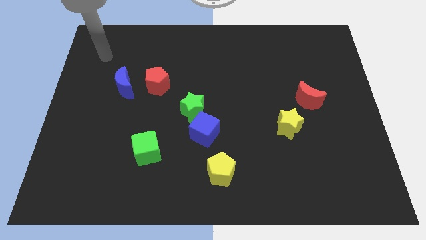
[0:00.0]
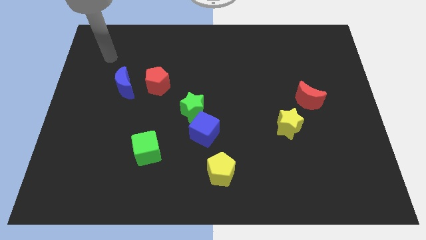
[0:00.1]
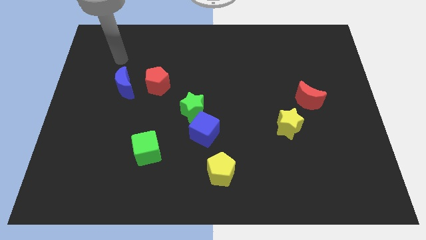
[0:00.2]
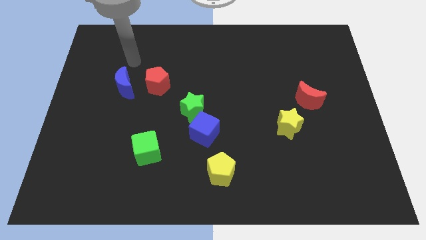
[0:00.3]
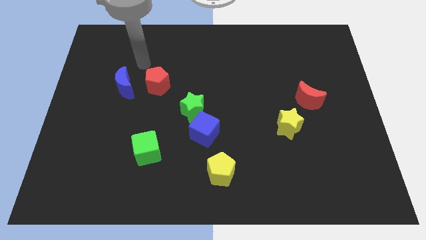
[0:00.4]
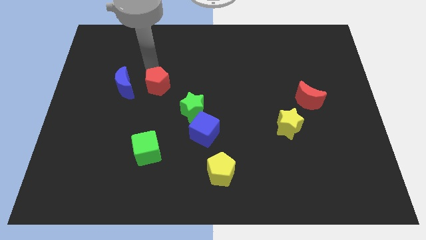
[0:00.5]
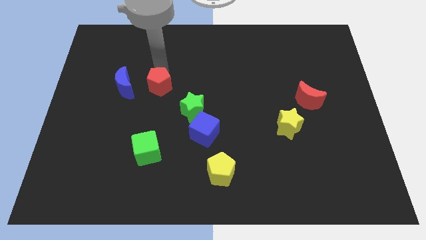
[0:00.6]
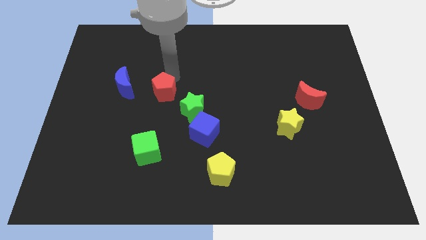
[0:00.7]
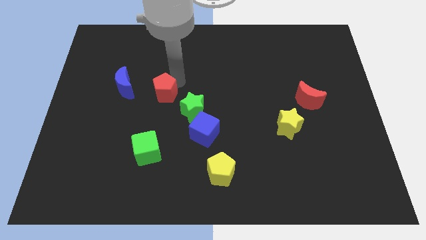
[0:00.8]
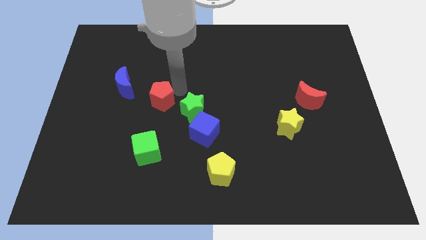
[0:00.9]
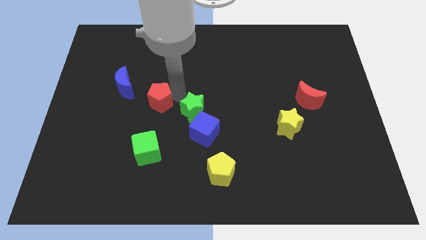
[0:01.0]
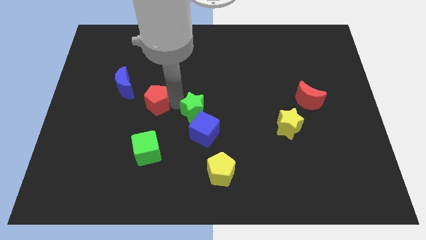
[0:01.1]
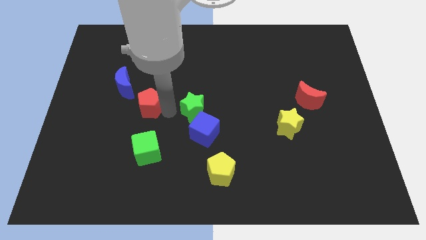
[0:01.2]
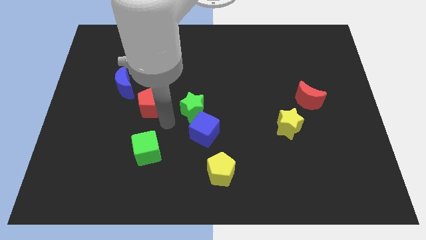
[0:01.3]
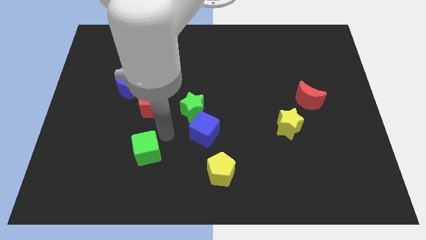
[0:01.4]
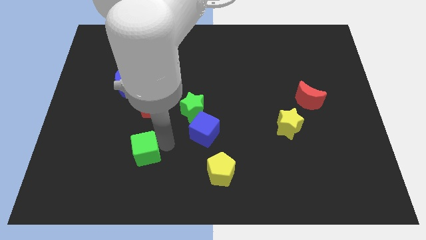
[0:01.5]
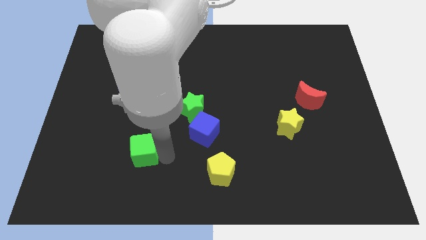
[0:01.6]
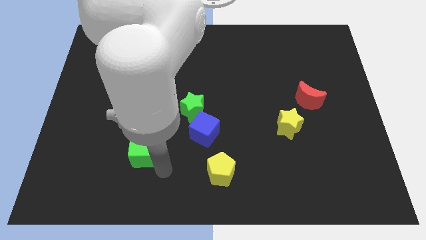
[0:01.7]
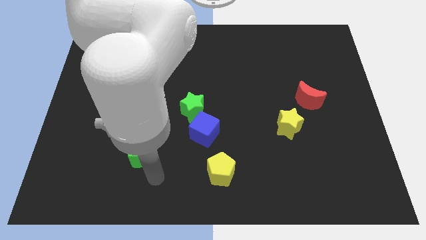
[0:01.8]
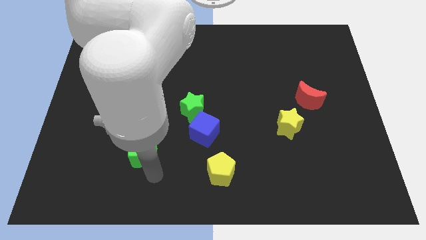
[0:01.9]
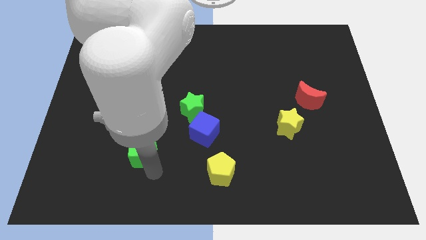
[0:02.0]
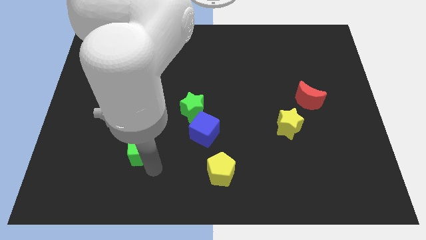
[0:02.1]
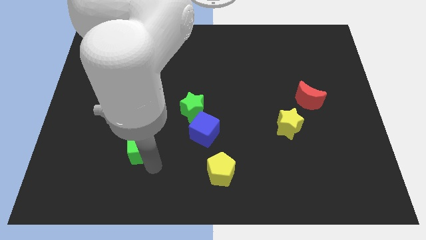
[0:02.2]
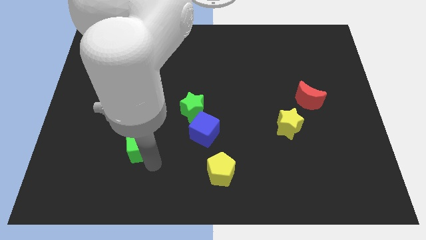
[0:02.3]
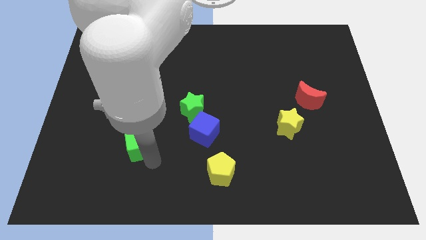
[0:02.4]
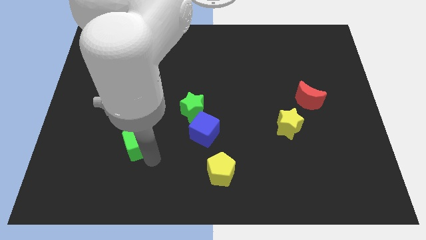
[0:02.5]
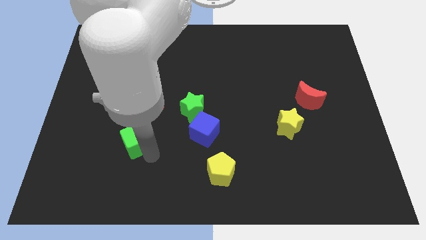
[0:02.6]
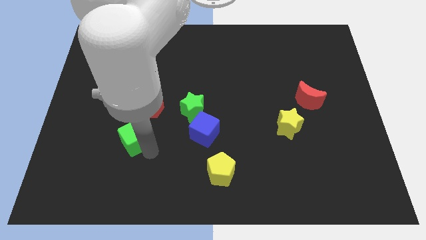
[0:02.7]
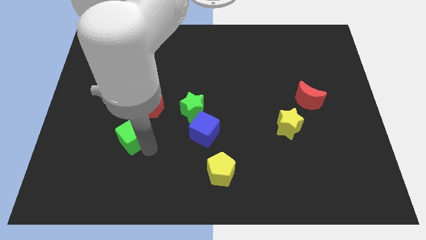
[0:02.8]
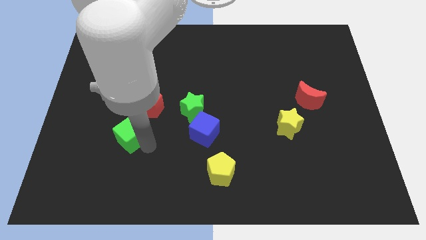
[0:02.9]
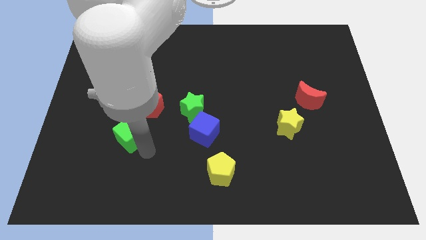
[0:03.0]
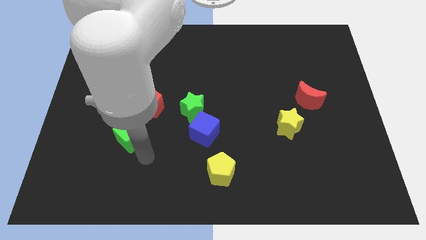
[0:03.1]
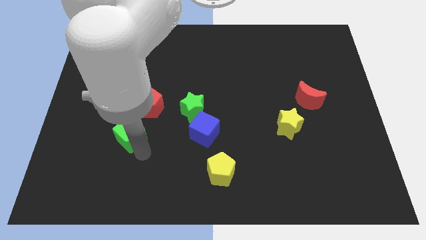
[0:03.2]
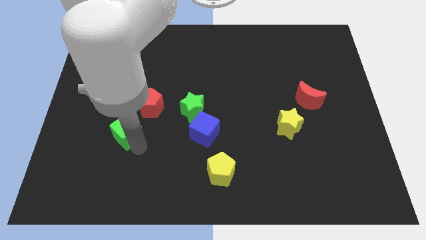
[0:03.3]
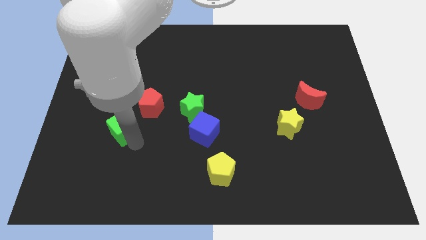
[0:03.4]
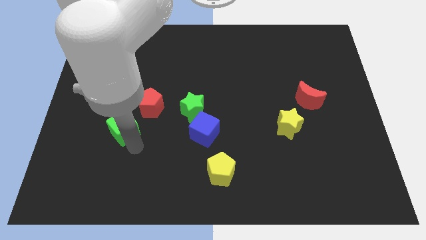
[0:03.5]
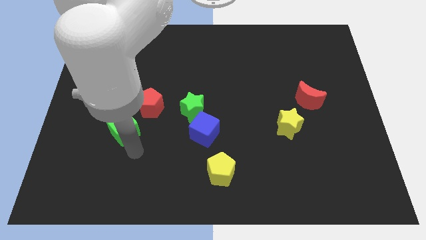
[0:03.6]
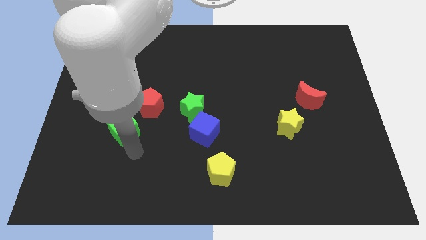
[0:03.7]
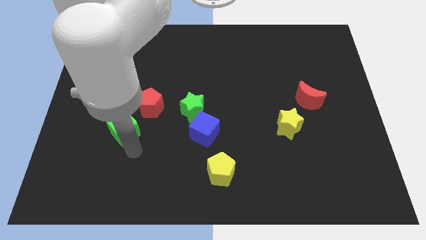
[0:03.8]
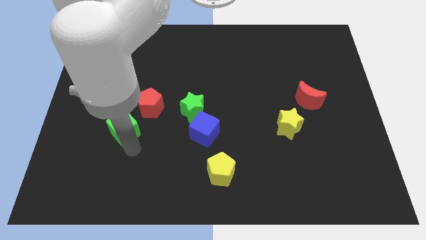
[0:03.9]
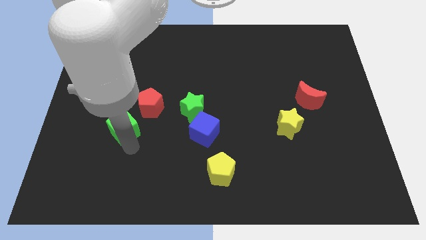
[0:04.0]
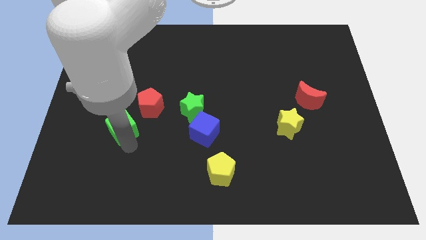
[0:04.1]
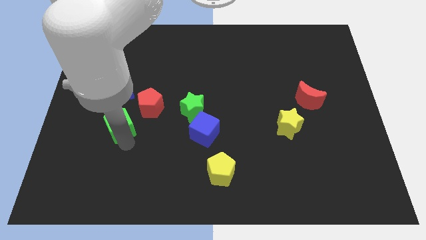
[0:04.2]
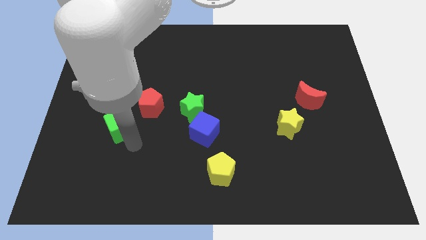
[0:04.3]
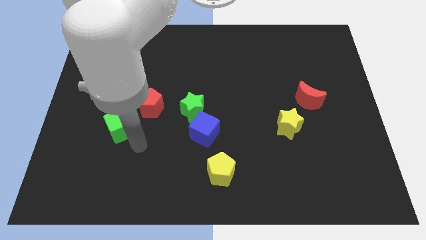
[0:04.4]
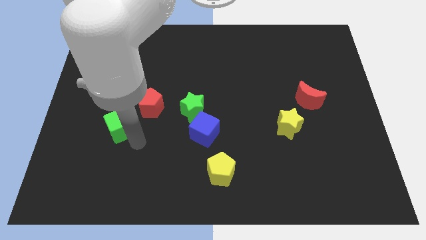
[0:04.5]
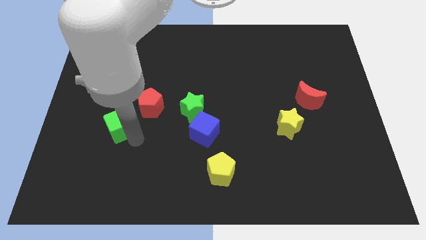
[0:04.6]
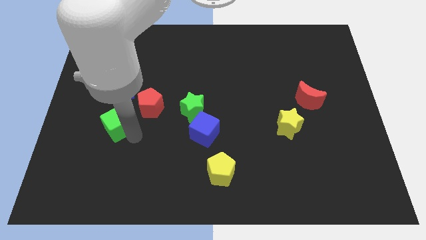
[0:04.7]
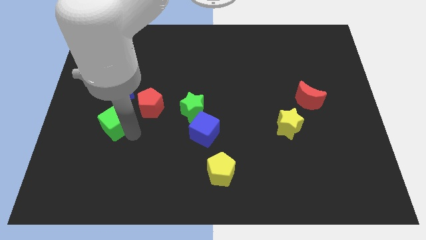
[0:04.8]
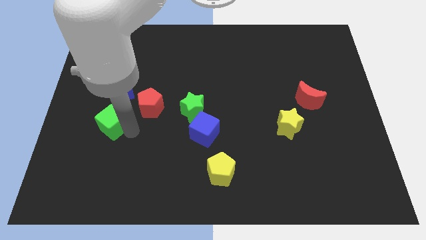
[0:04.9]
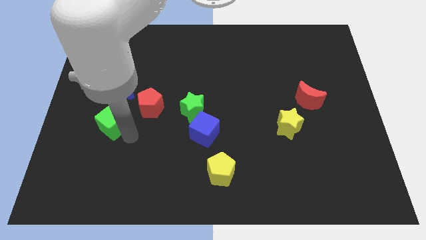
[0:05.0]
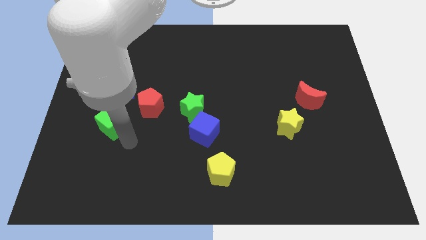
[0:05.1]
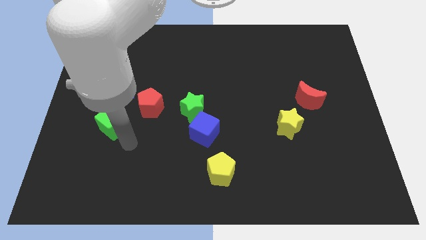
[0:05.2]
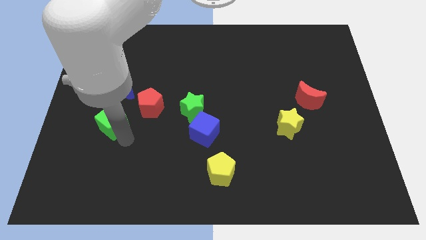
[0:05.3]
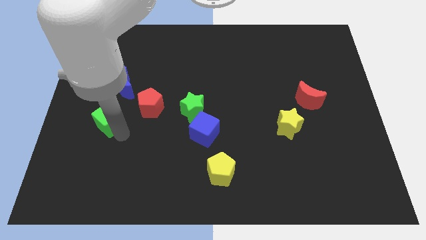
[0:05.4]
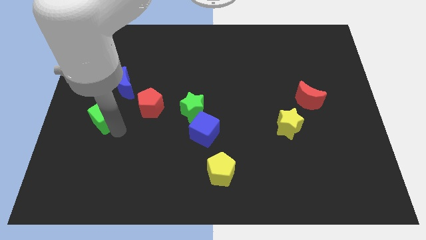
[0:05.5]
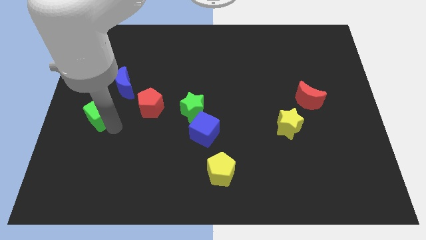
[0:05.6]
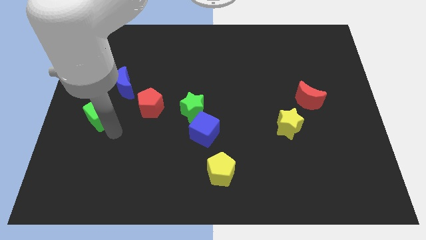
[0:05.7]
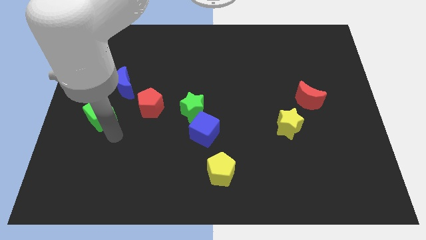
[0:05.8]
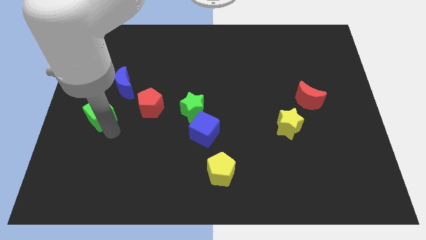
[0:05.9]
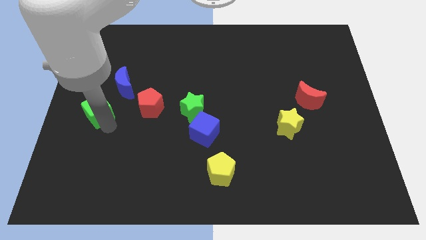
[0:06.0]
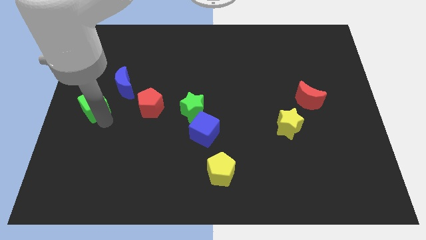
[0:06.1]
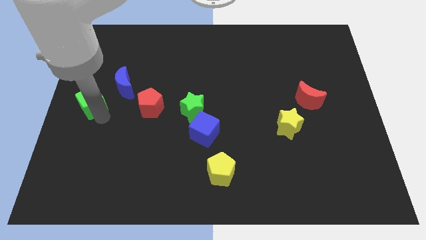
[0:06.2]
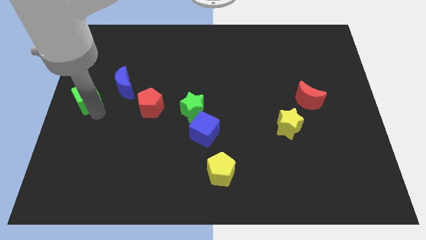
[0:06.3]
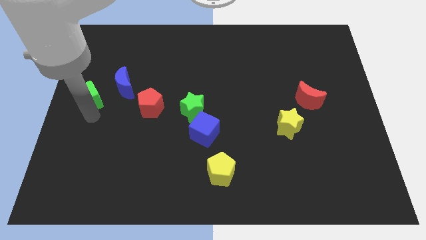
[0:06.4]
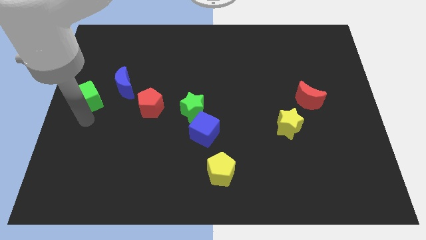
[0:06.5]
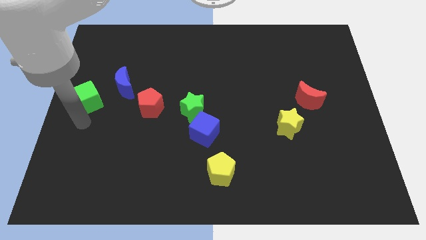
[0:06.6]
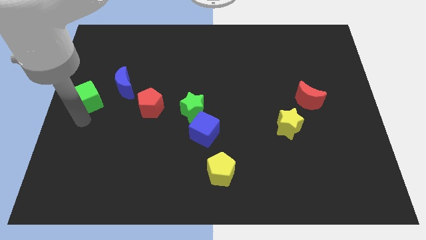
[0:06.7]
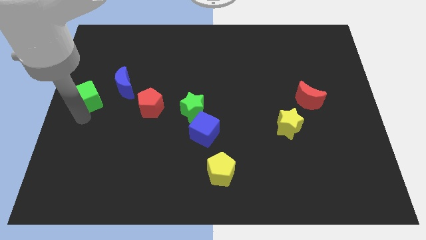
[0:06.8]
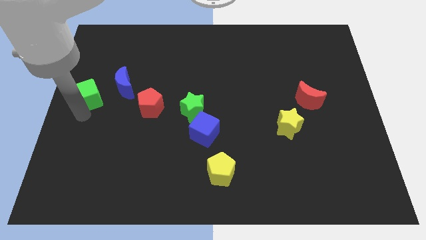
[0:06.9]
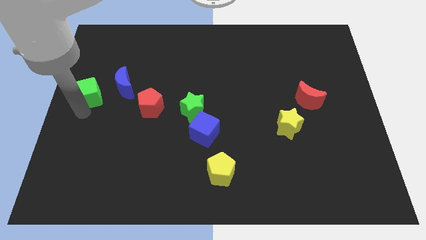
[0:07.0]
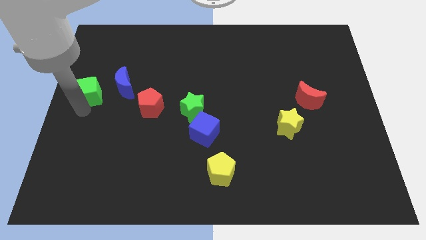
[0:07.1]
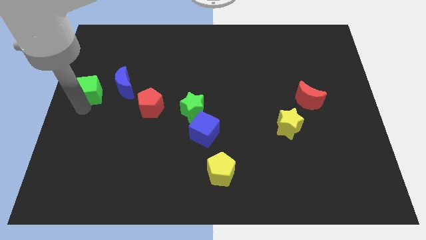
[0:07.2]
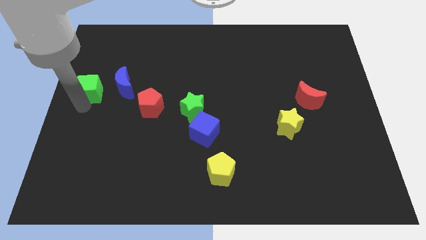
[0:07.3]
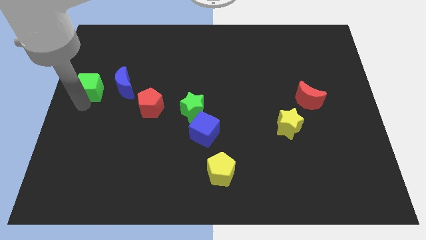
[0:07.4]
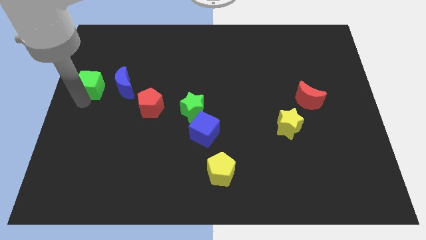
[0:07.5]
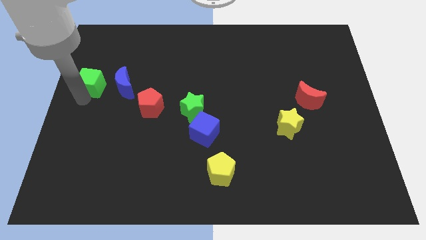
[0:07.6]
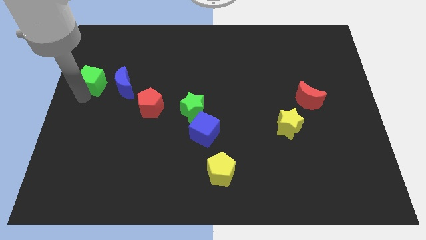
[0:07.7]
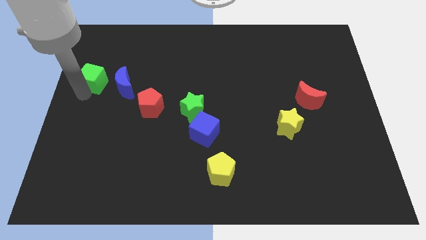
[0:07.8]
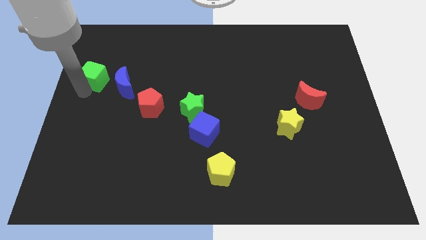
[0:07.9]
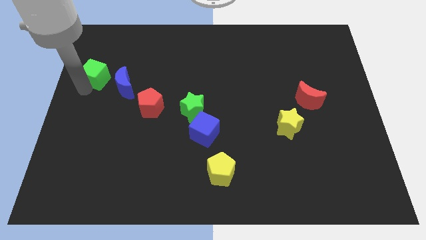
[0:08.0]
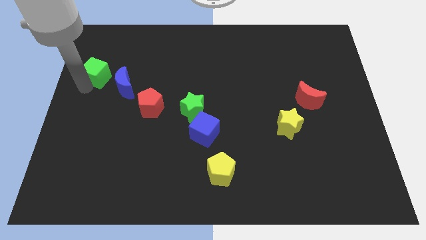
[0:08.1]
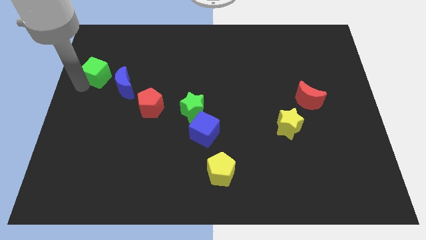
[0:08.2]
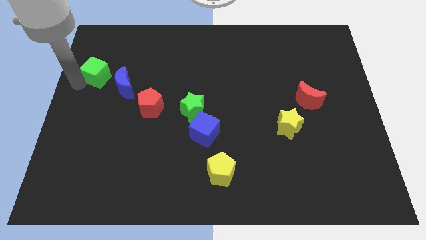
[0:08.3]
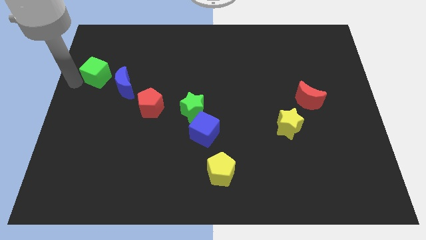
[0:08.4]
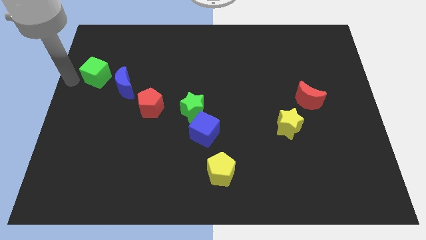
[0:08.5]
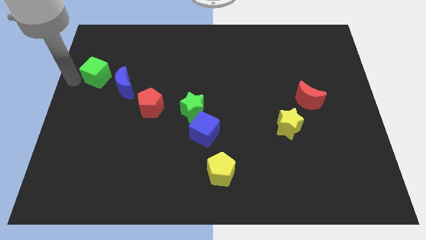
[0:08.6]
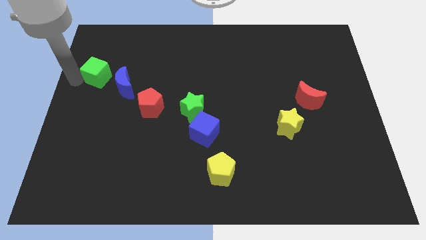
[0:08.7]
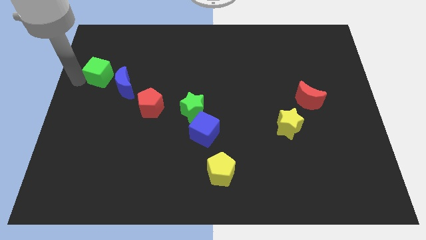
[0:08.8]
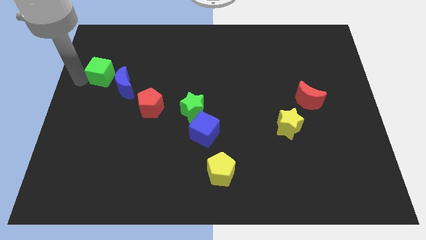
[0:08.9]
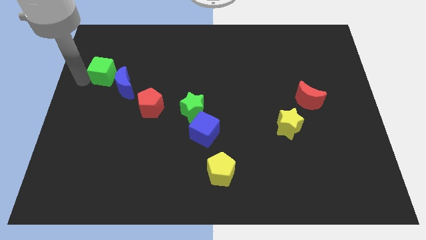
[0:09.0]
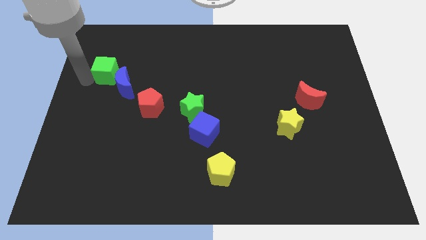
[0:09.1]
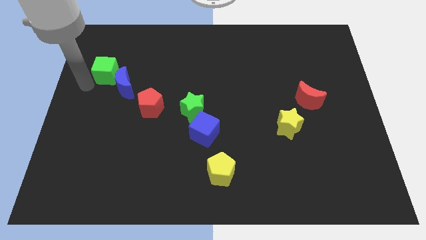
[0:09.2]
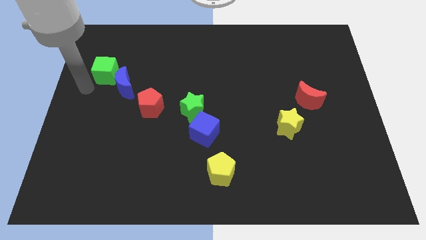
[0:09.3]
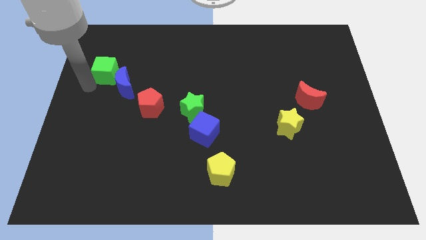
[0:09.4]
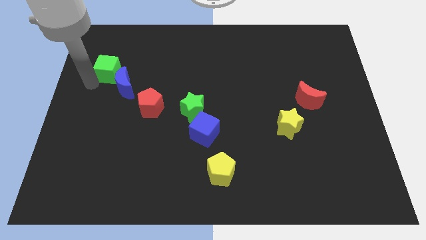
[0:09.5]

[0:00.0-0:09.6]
put the green cube to the top side of the blue moon
